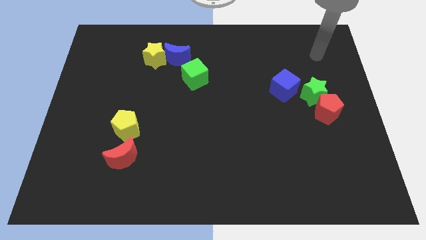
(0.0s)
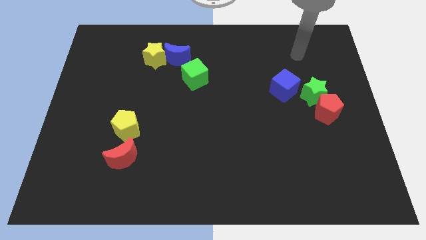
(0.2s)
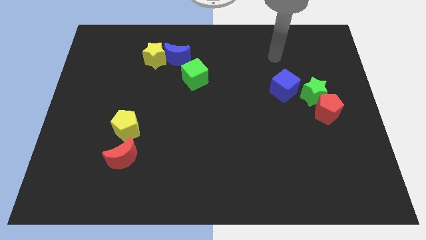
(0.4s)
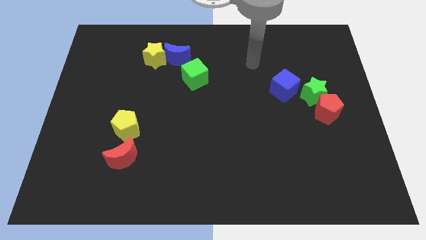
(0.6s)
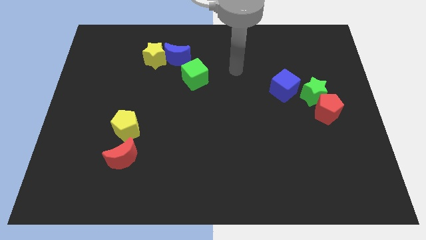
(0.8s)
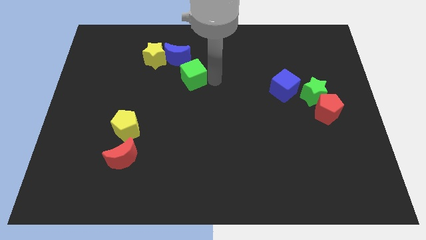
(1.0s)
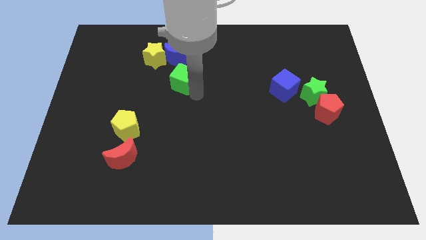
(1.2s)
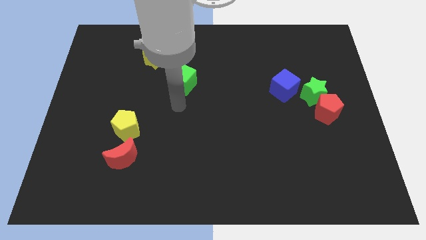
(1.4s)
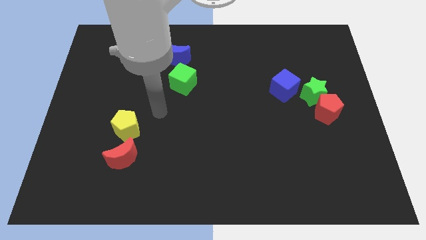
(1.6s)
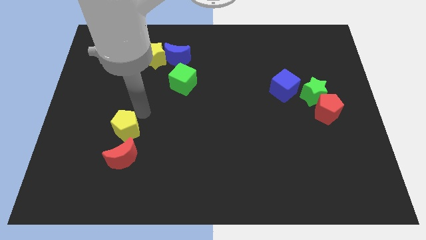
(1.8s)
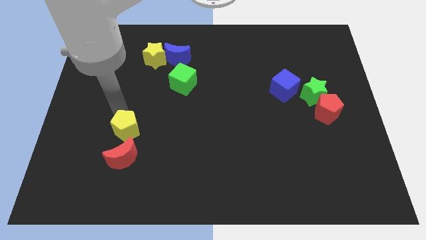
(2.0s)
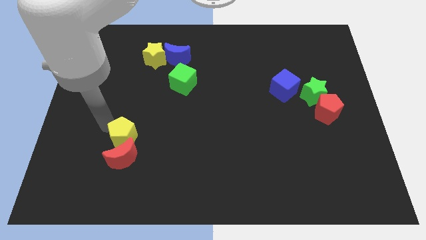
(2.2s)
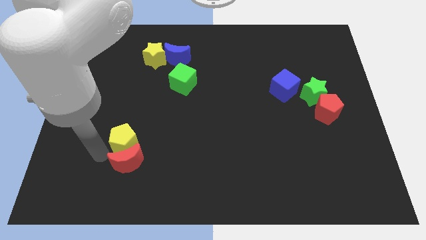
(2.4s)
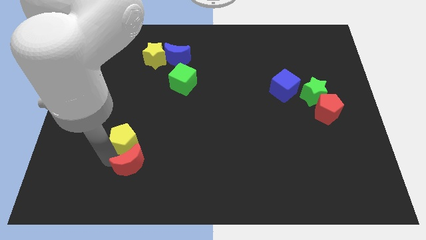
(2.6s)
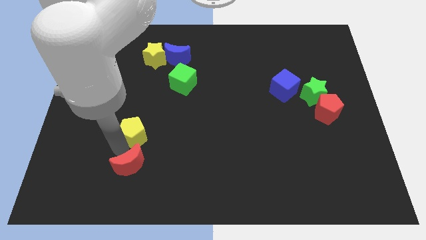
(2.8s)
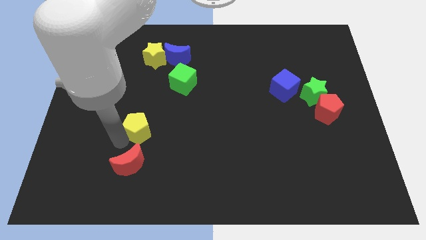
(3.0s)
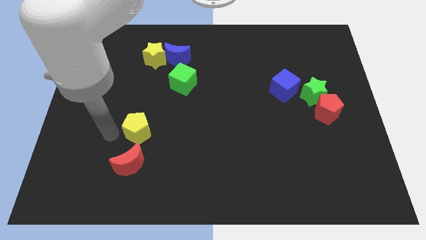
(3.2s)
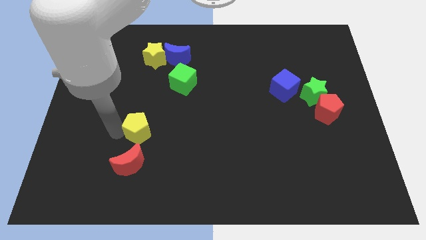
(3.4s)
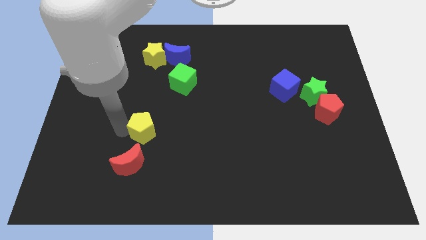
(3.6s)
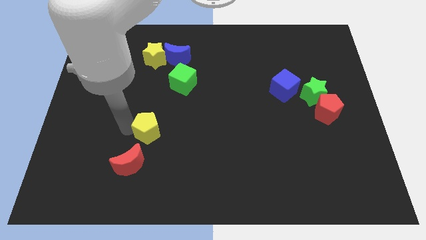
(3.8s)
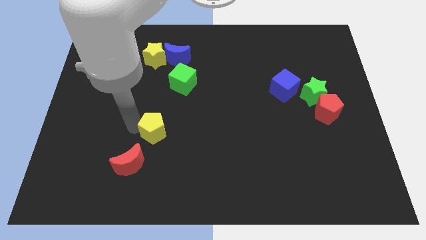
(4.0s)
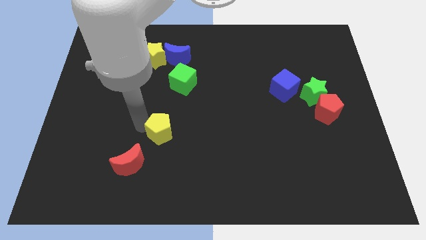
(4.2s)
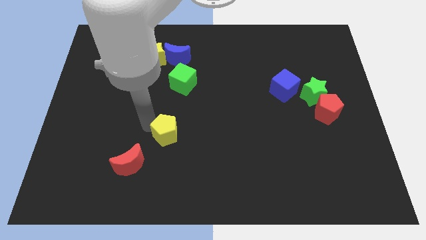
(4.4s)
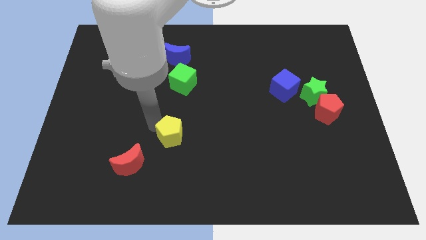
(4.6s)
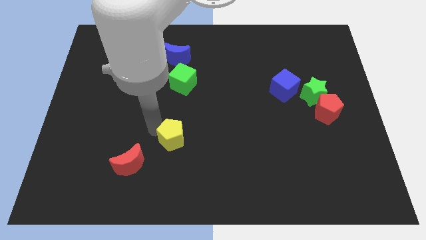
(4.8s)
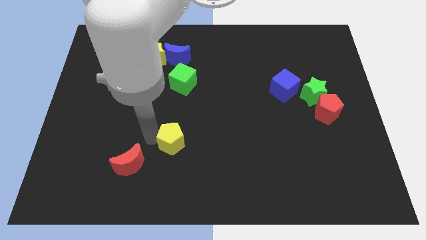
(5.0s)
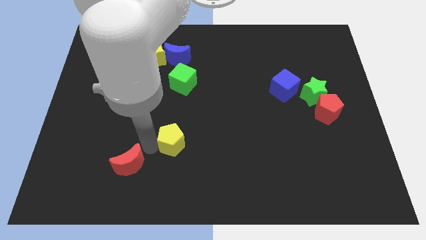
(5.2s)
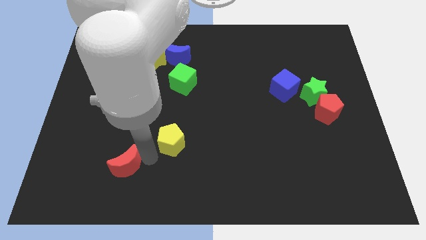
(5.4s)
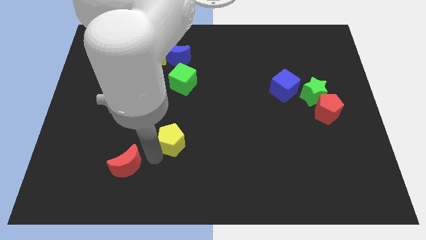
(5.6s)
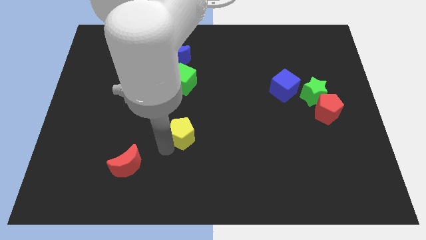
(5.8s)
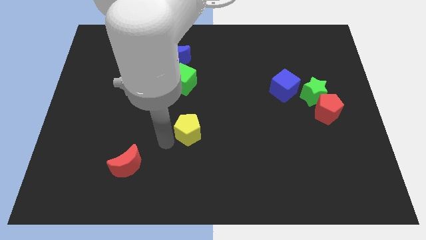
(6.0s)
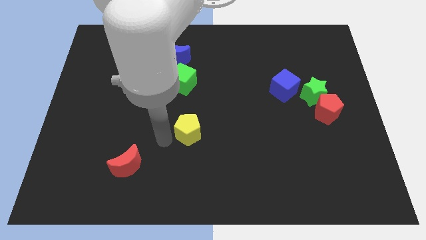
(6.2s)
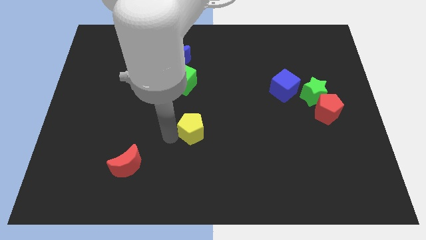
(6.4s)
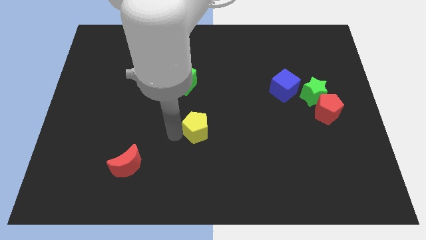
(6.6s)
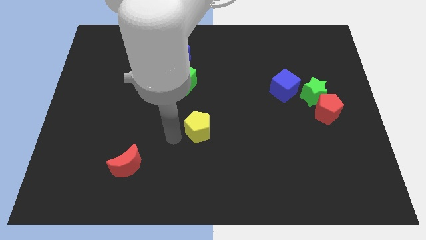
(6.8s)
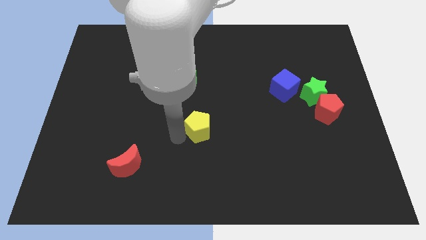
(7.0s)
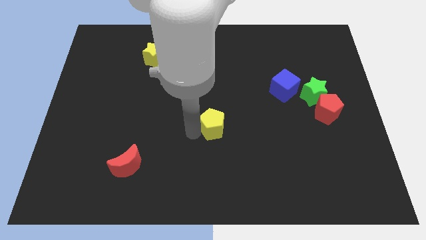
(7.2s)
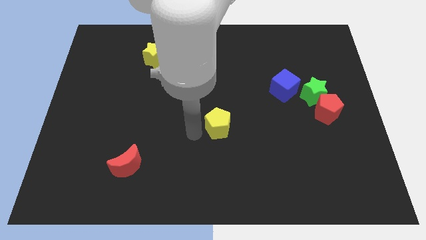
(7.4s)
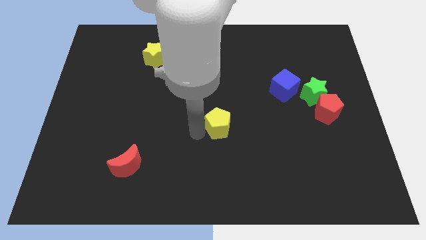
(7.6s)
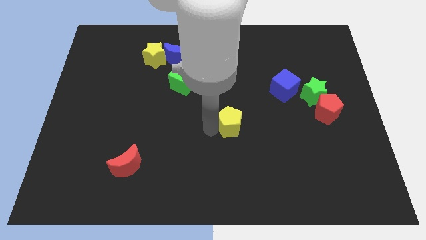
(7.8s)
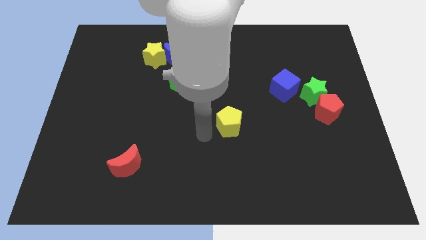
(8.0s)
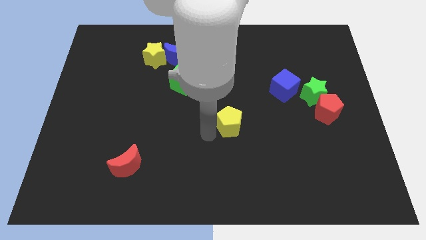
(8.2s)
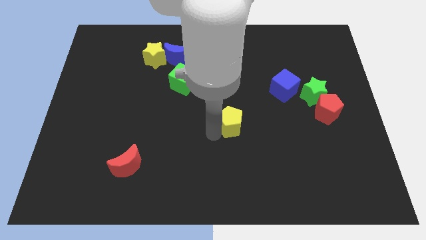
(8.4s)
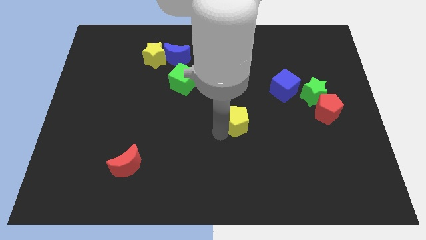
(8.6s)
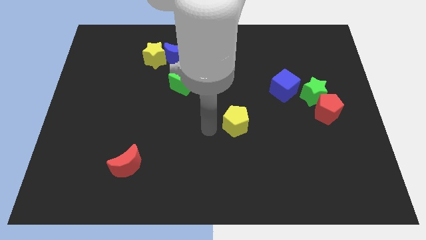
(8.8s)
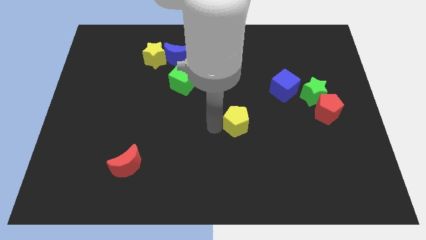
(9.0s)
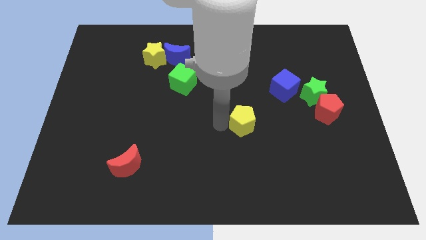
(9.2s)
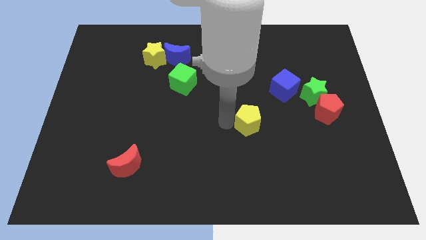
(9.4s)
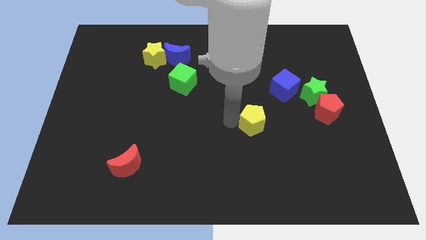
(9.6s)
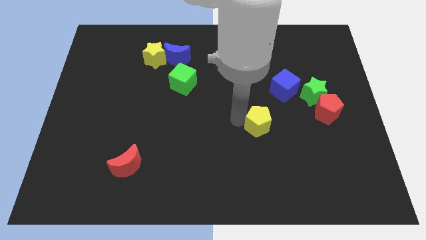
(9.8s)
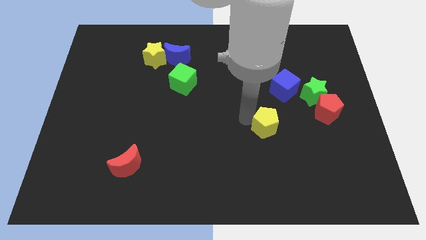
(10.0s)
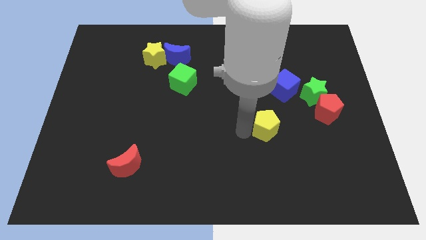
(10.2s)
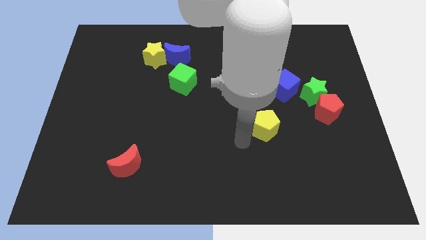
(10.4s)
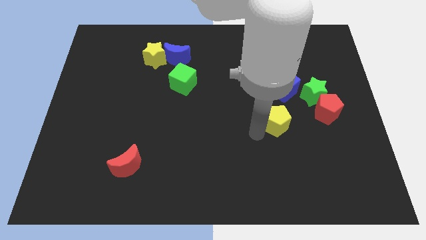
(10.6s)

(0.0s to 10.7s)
put the yellow pentagon to the bottom left of the green star

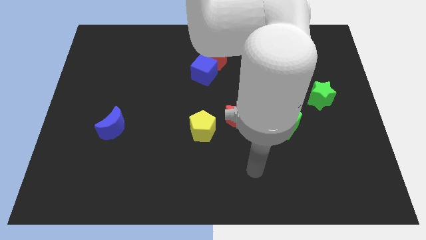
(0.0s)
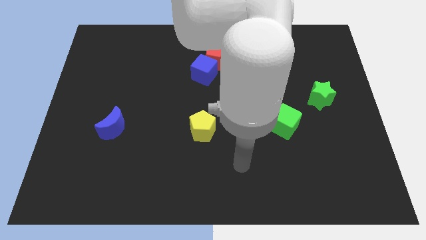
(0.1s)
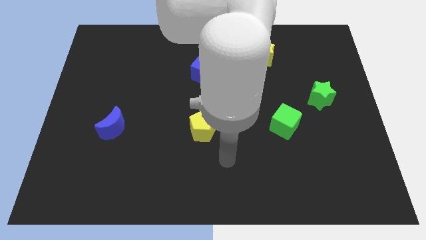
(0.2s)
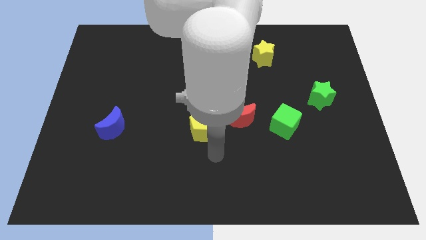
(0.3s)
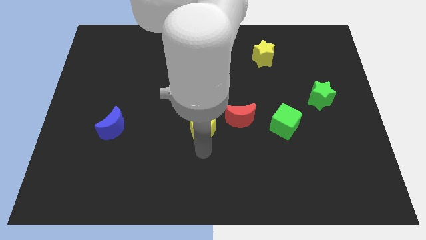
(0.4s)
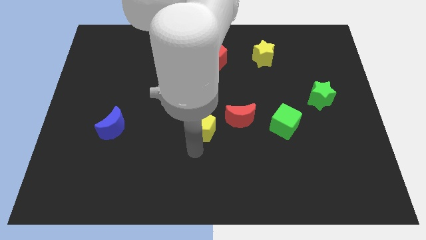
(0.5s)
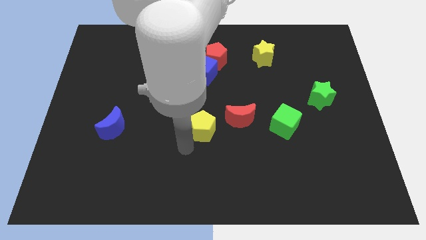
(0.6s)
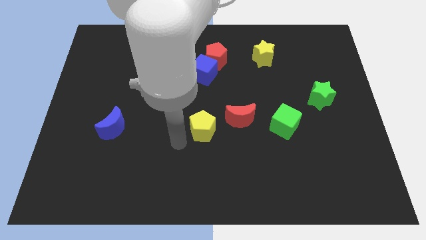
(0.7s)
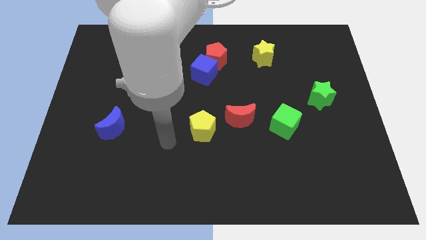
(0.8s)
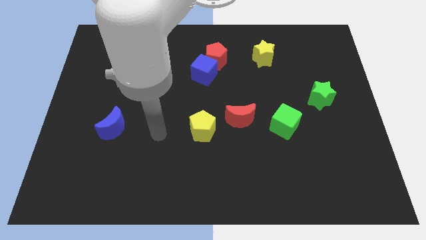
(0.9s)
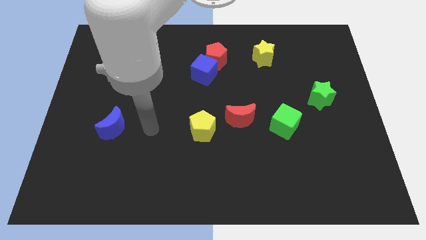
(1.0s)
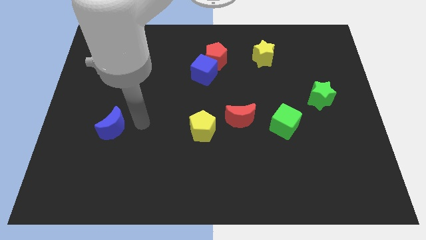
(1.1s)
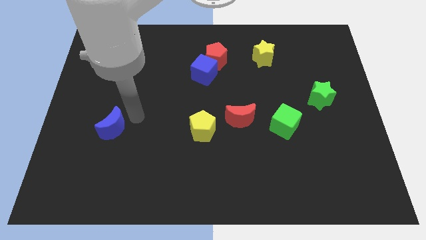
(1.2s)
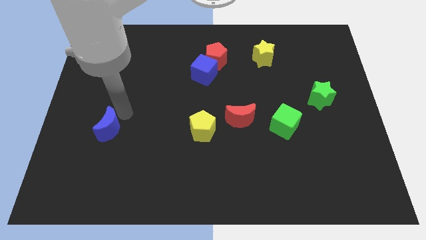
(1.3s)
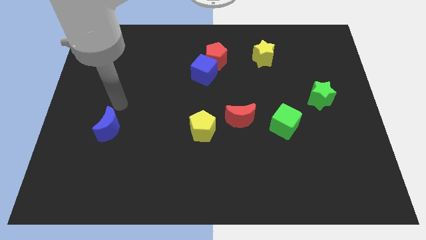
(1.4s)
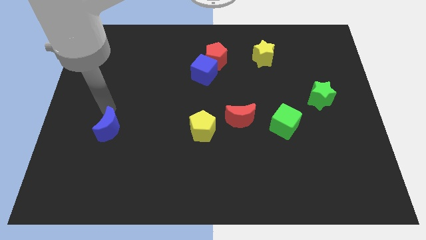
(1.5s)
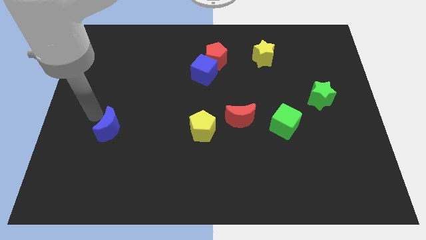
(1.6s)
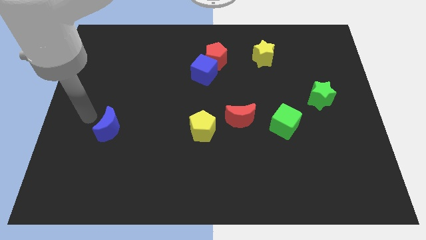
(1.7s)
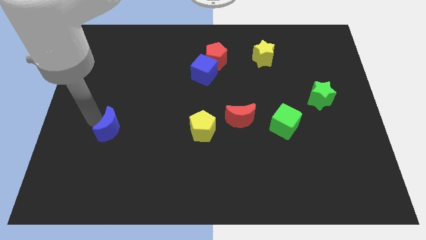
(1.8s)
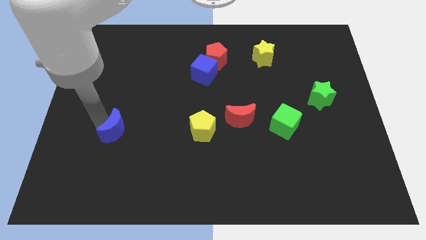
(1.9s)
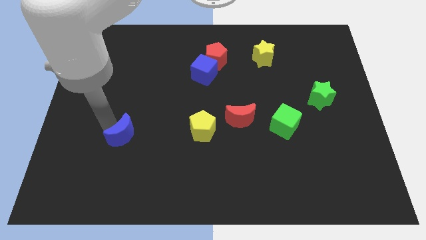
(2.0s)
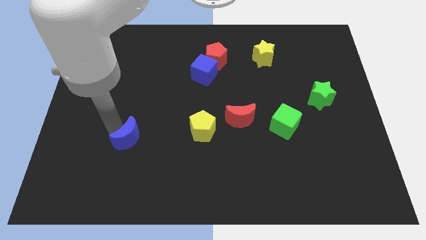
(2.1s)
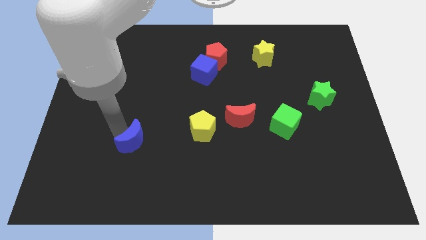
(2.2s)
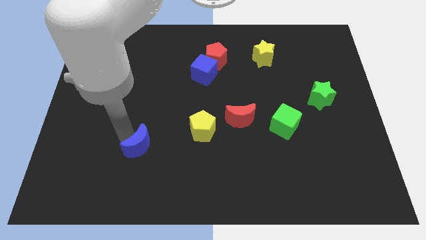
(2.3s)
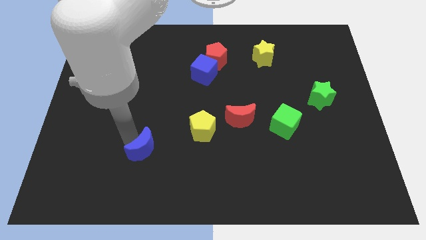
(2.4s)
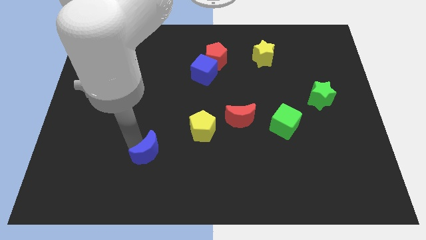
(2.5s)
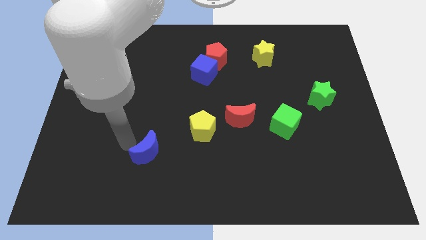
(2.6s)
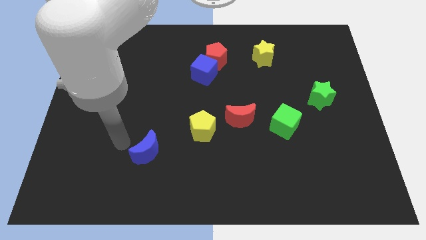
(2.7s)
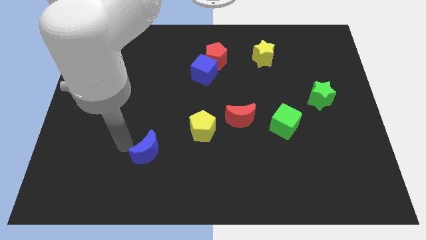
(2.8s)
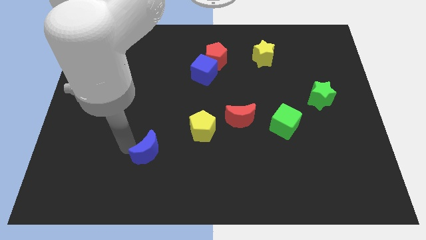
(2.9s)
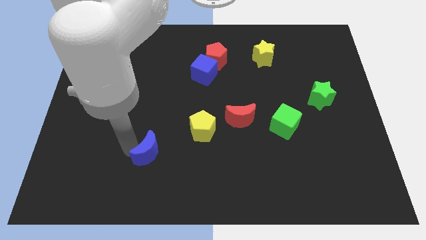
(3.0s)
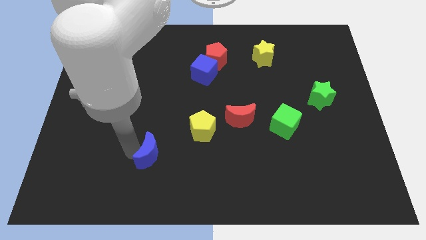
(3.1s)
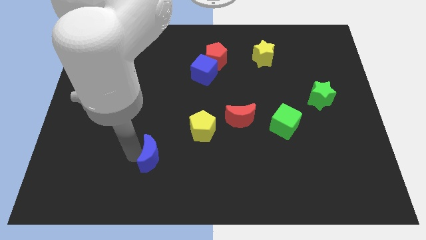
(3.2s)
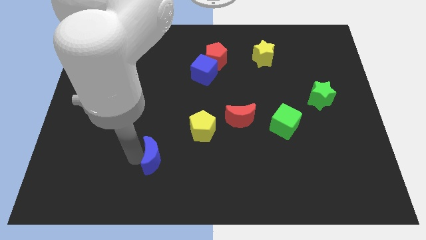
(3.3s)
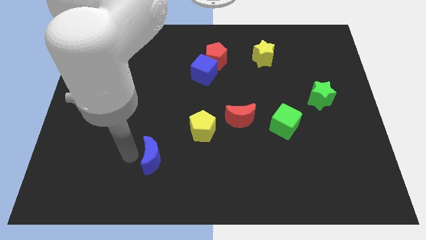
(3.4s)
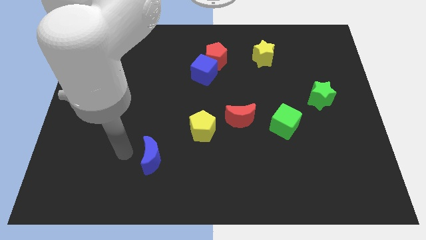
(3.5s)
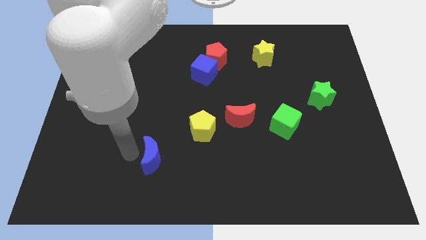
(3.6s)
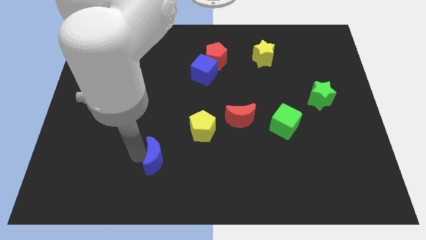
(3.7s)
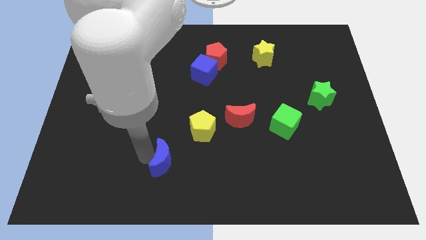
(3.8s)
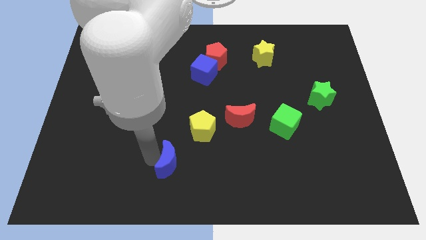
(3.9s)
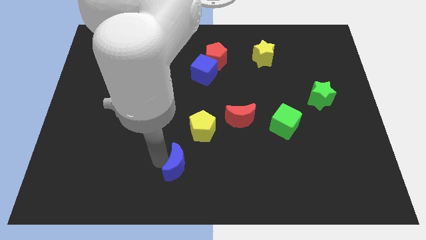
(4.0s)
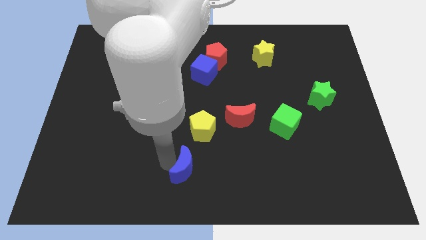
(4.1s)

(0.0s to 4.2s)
push the blue moon to the bottom of the yellow pentagon
